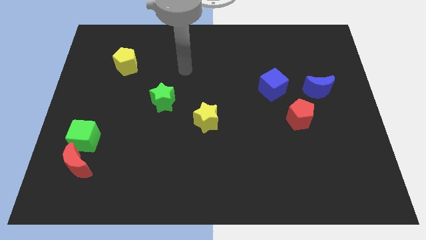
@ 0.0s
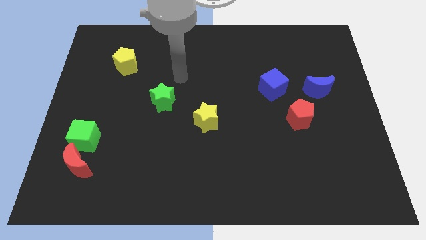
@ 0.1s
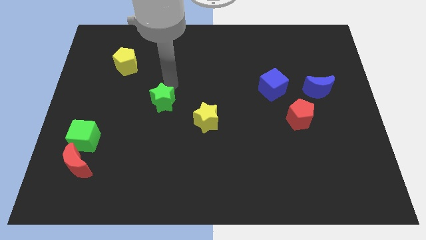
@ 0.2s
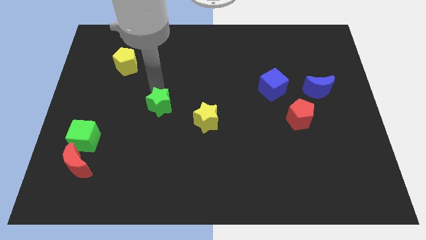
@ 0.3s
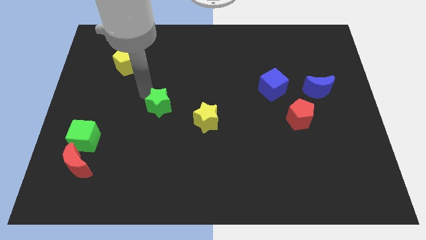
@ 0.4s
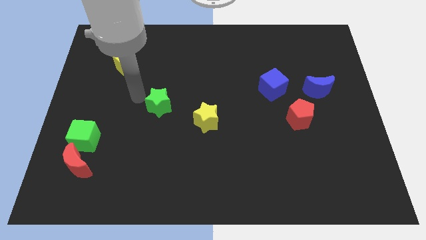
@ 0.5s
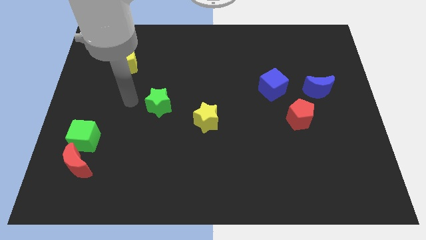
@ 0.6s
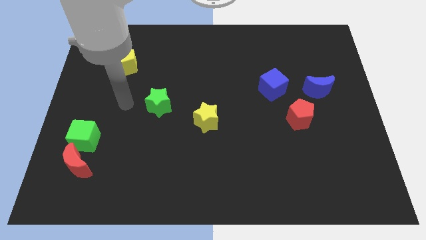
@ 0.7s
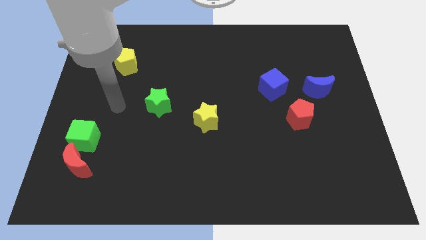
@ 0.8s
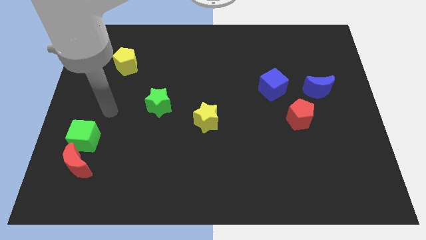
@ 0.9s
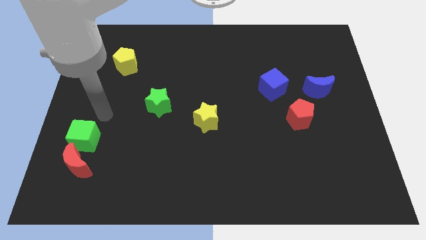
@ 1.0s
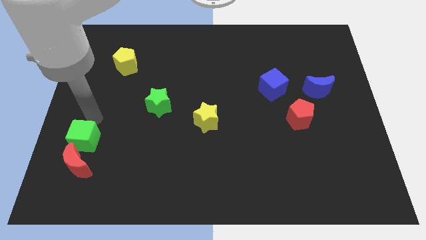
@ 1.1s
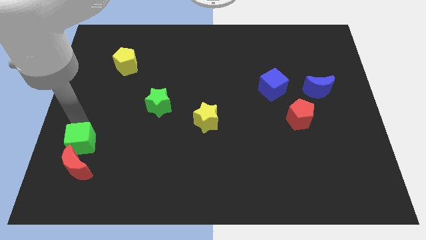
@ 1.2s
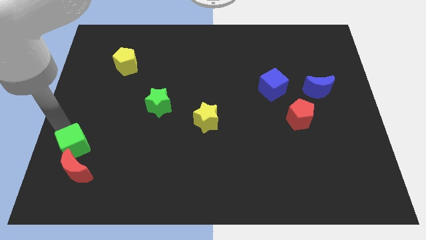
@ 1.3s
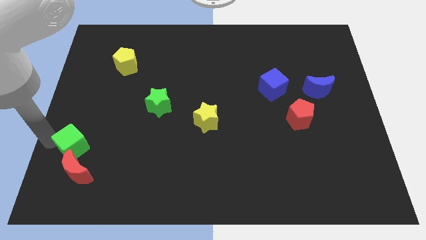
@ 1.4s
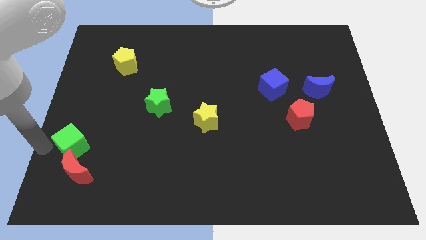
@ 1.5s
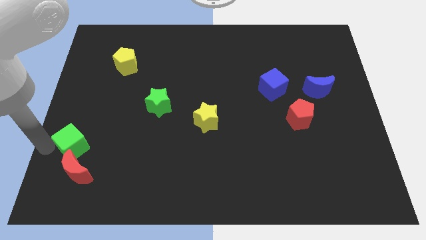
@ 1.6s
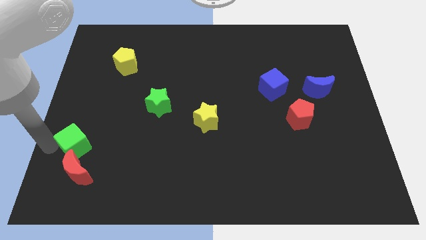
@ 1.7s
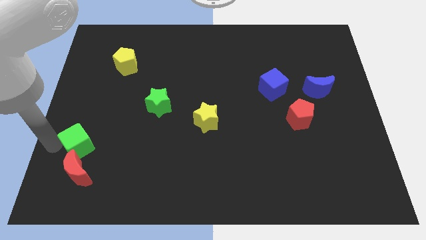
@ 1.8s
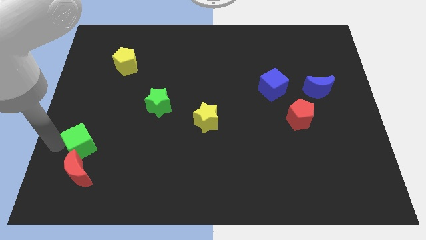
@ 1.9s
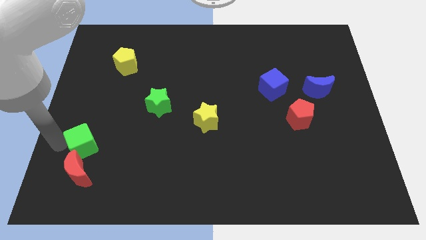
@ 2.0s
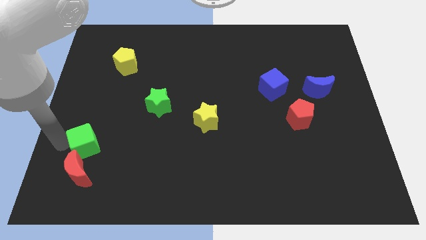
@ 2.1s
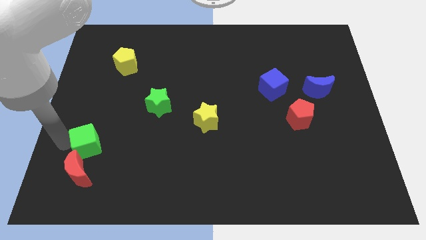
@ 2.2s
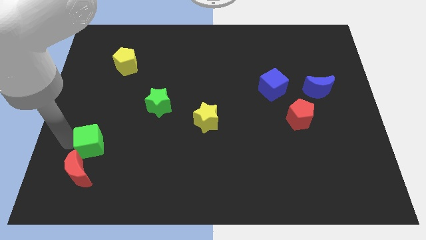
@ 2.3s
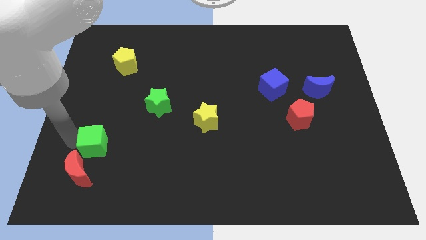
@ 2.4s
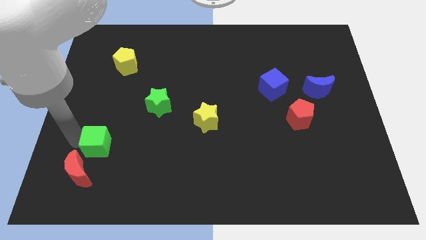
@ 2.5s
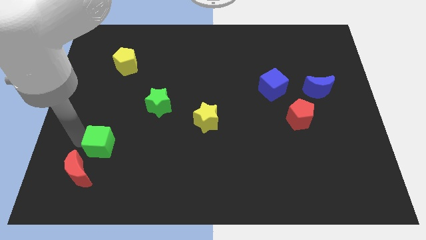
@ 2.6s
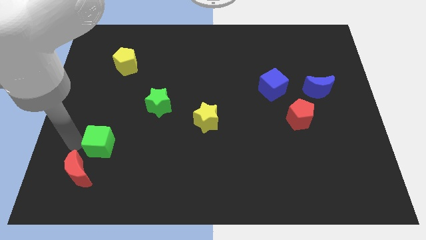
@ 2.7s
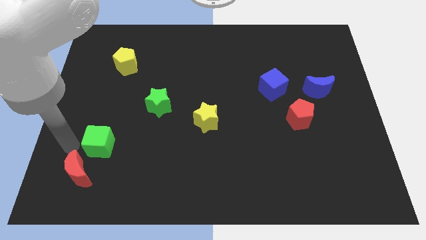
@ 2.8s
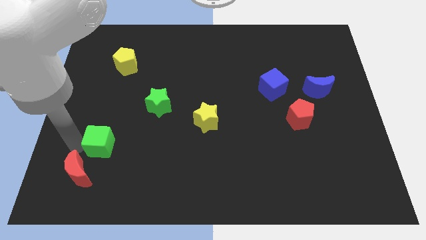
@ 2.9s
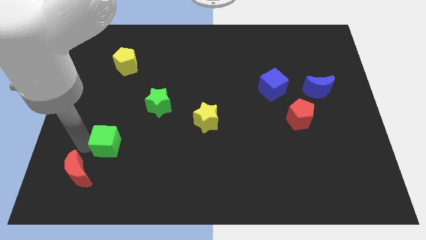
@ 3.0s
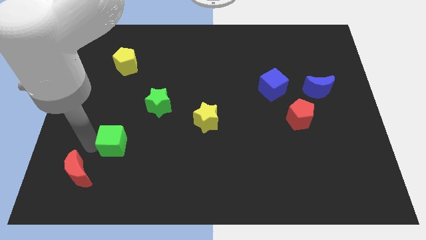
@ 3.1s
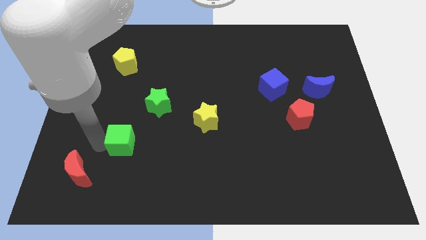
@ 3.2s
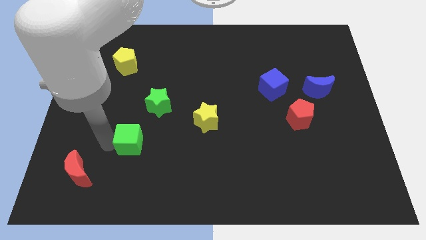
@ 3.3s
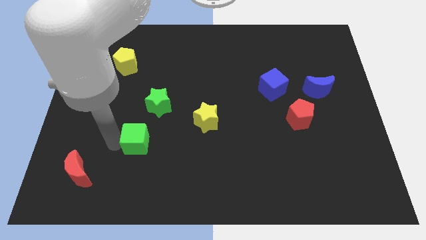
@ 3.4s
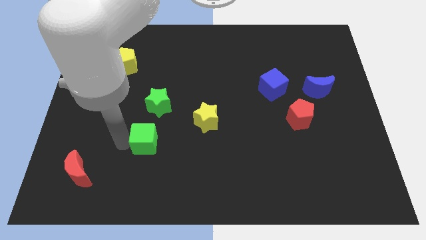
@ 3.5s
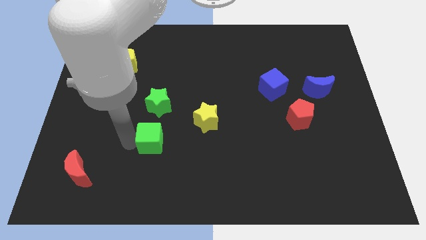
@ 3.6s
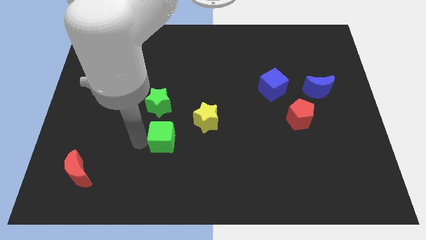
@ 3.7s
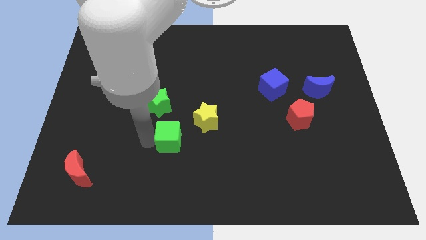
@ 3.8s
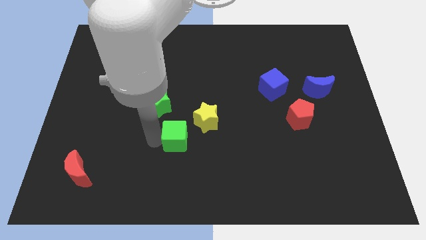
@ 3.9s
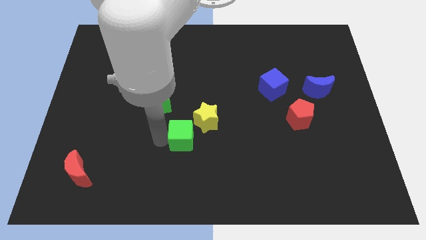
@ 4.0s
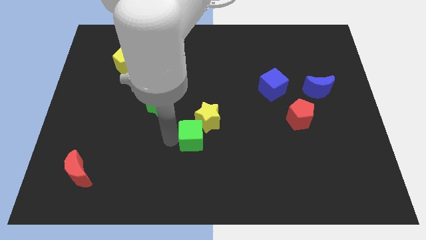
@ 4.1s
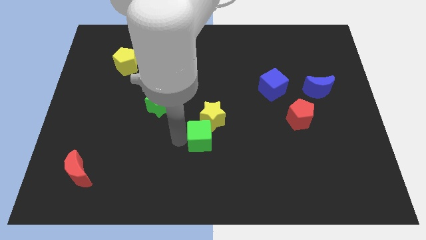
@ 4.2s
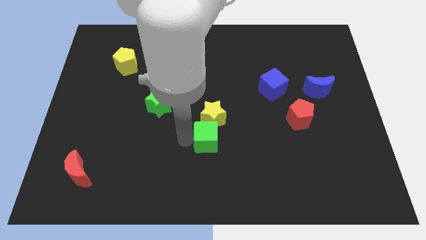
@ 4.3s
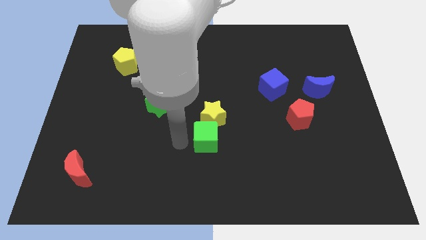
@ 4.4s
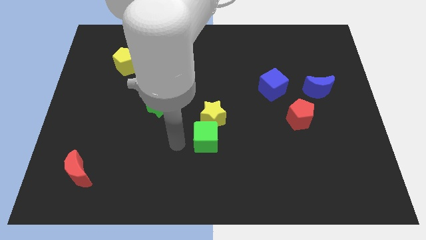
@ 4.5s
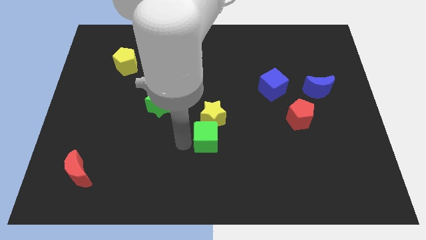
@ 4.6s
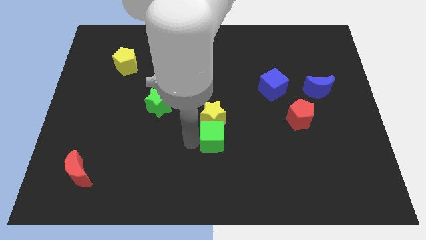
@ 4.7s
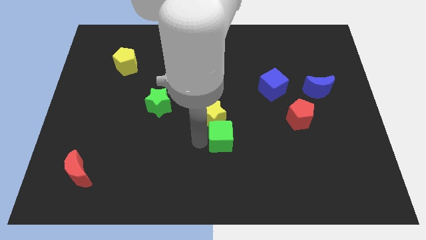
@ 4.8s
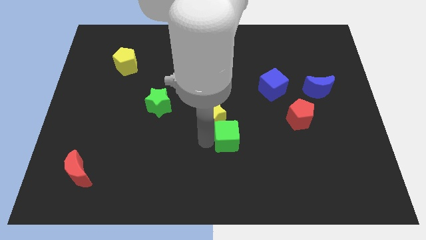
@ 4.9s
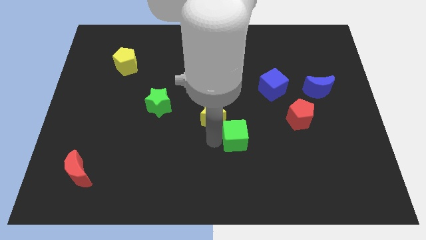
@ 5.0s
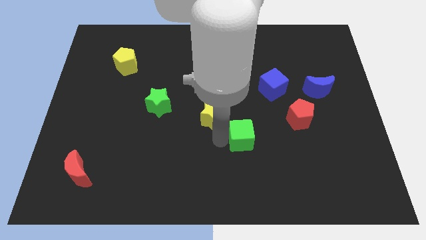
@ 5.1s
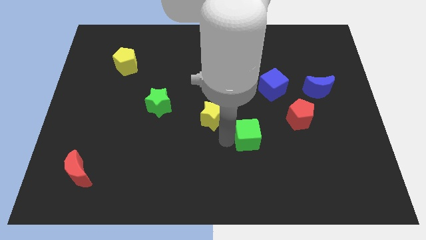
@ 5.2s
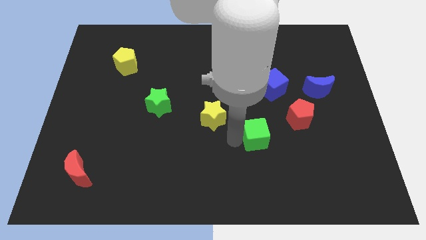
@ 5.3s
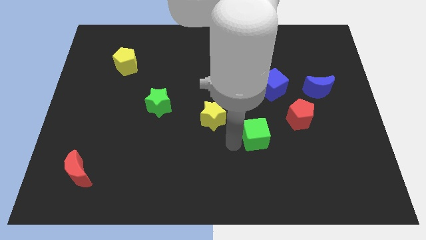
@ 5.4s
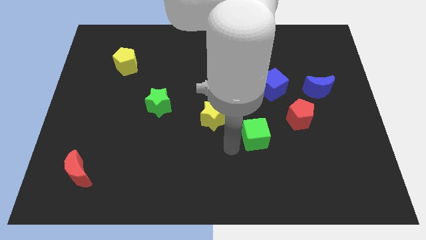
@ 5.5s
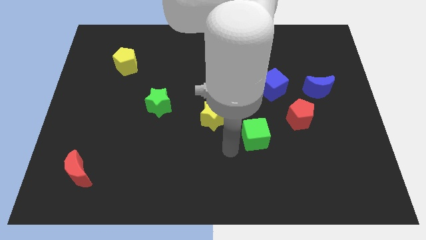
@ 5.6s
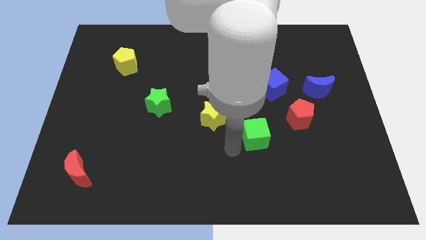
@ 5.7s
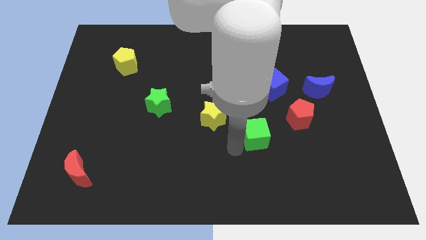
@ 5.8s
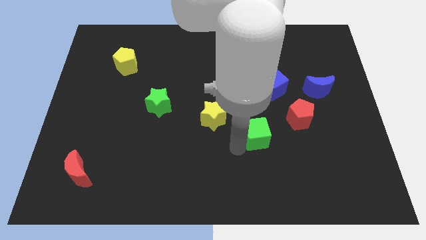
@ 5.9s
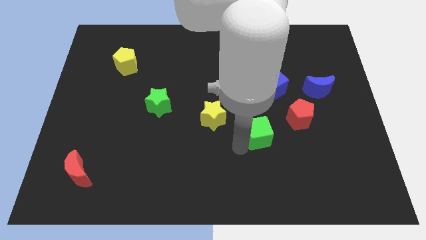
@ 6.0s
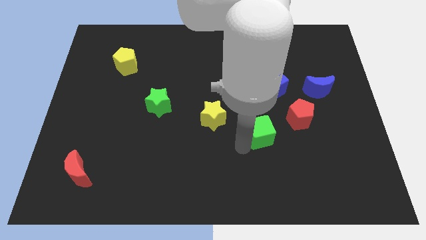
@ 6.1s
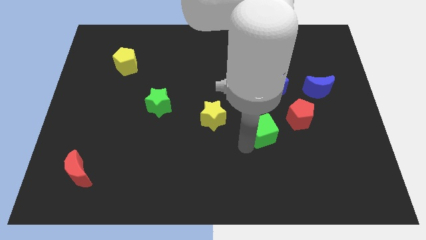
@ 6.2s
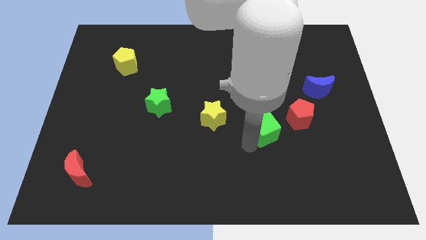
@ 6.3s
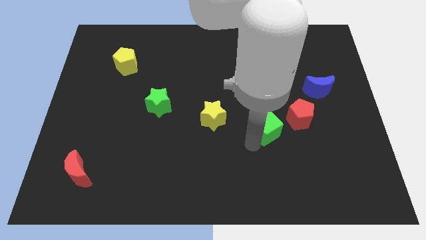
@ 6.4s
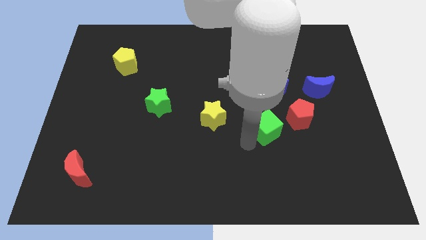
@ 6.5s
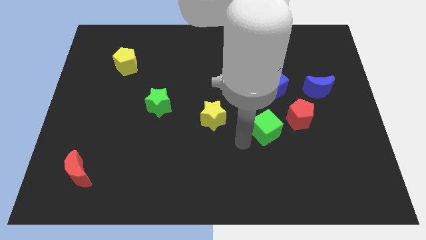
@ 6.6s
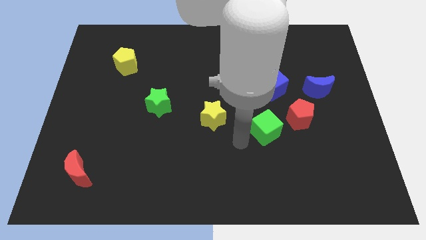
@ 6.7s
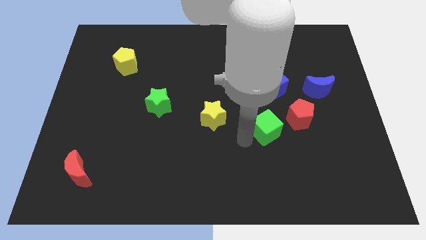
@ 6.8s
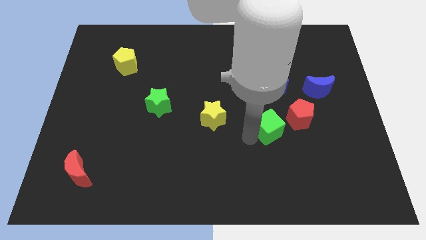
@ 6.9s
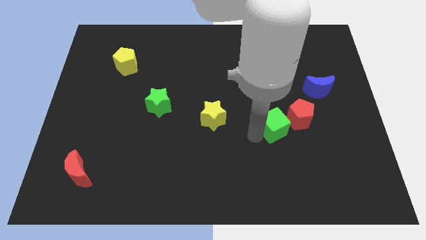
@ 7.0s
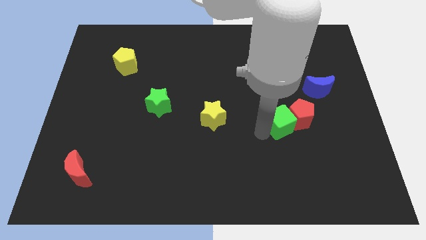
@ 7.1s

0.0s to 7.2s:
slide the green cube to the red pentagon
